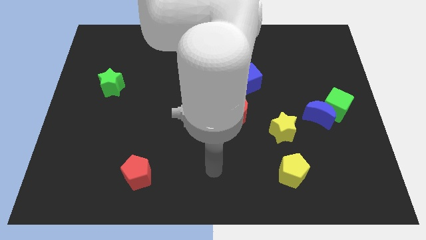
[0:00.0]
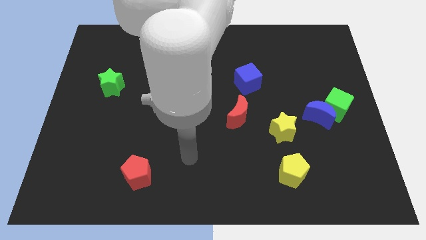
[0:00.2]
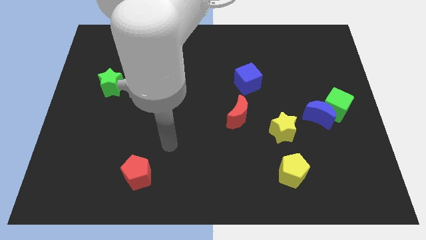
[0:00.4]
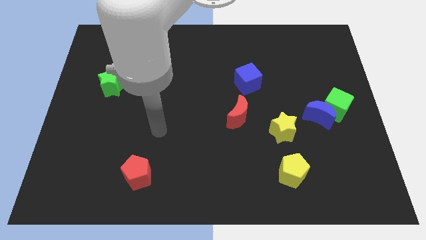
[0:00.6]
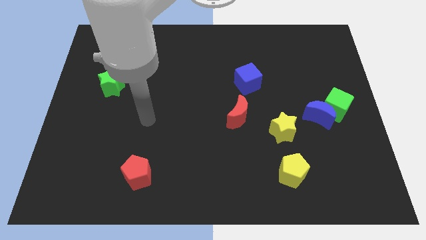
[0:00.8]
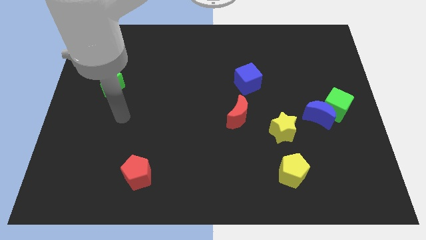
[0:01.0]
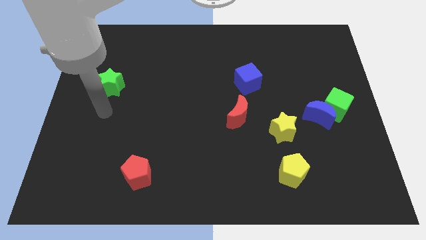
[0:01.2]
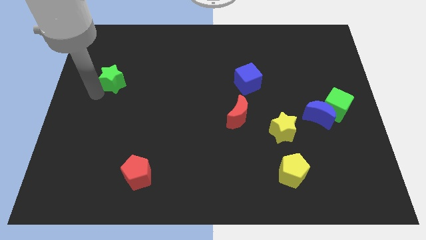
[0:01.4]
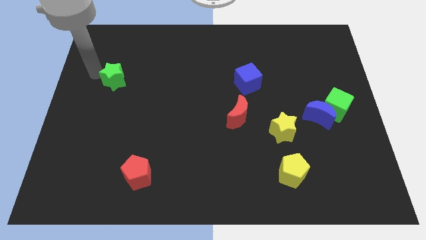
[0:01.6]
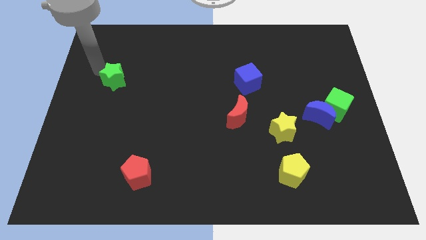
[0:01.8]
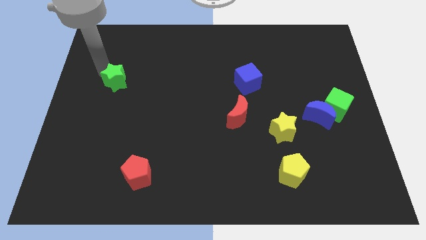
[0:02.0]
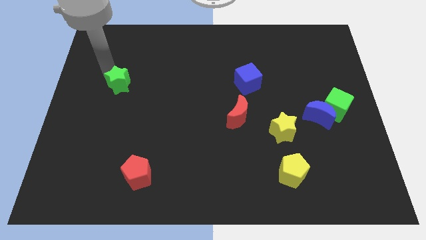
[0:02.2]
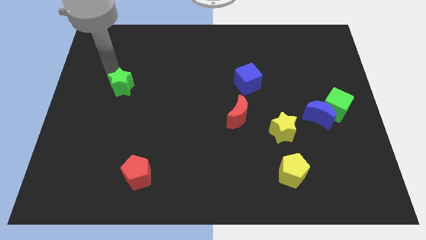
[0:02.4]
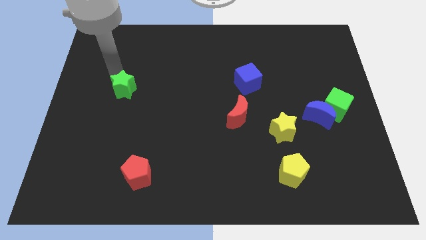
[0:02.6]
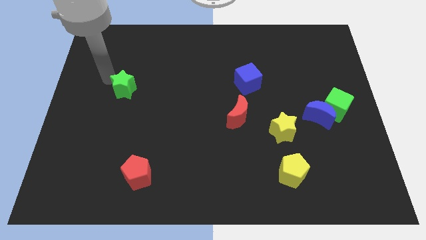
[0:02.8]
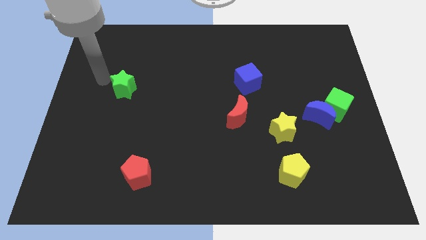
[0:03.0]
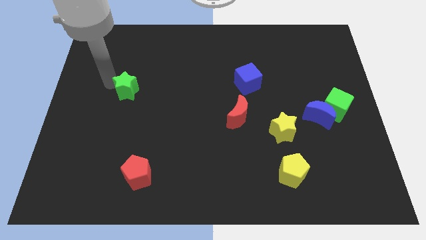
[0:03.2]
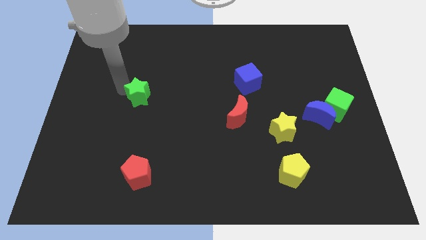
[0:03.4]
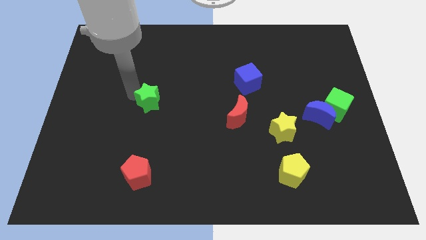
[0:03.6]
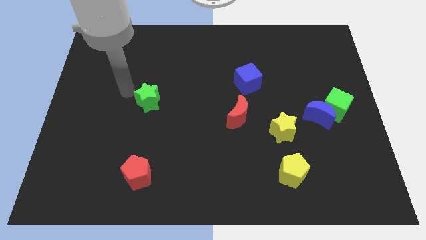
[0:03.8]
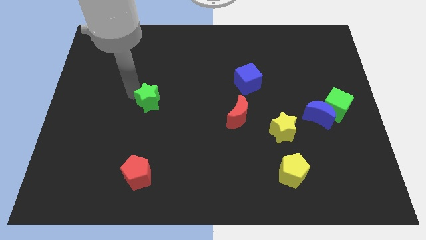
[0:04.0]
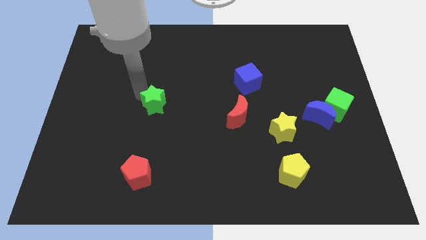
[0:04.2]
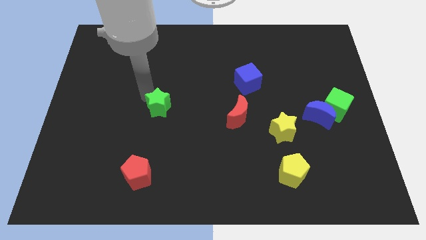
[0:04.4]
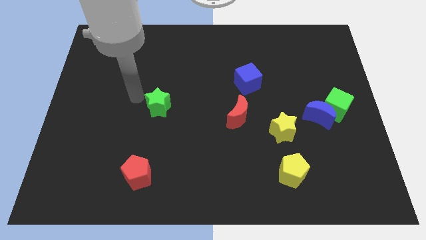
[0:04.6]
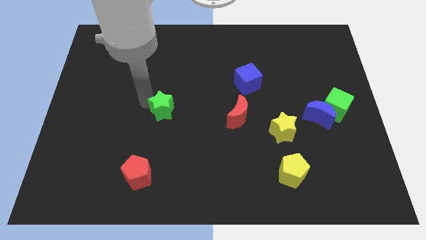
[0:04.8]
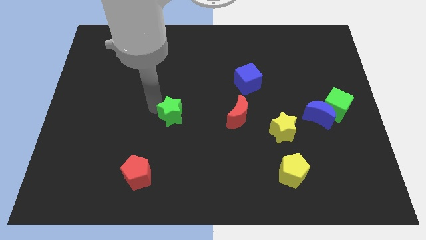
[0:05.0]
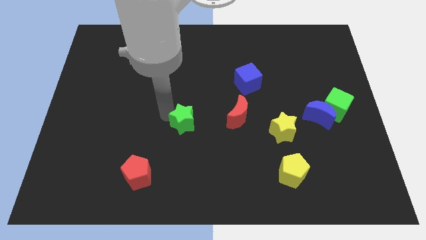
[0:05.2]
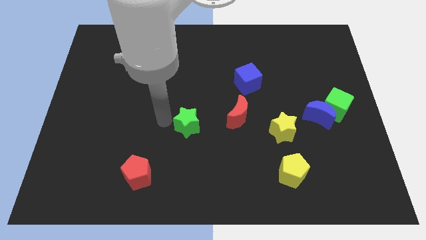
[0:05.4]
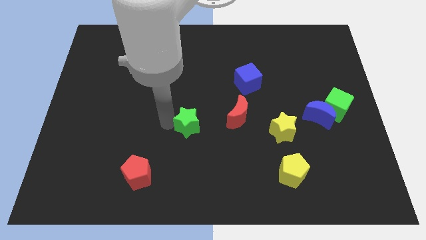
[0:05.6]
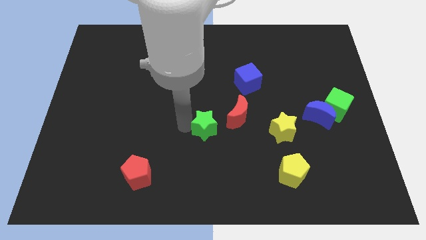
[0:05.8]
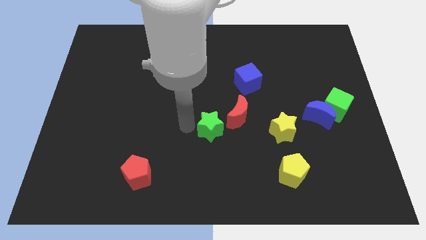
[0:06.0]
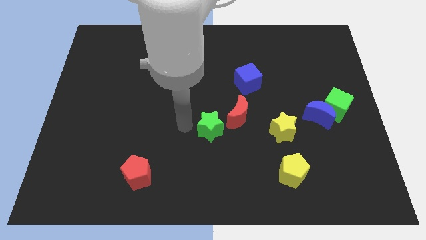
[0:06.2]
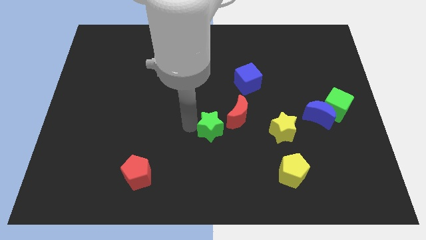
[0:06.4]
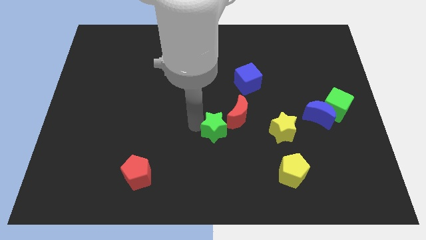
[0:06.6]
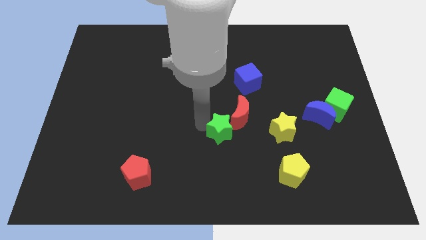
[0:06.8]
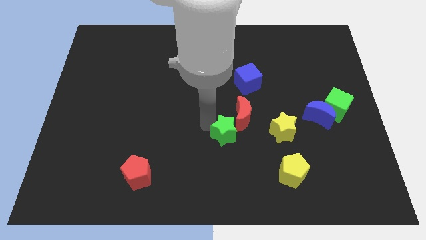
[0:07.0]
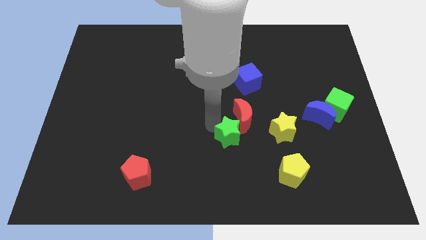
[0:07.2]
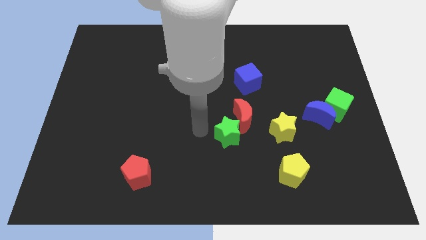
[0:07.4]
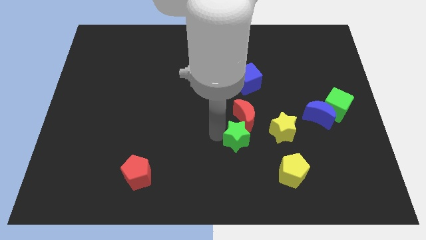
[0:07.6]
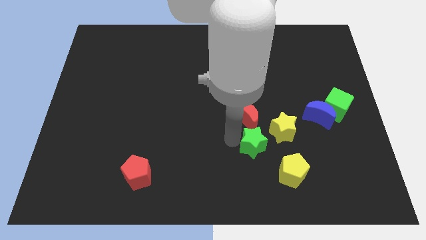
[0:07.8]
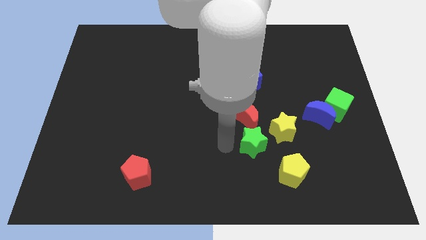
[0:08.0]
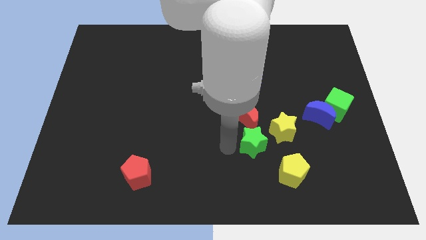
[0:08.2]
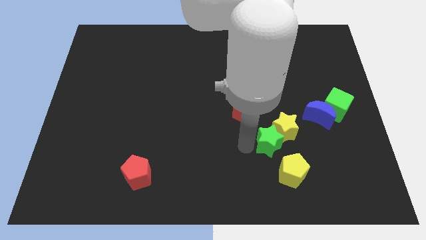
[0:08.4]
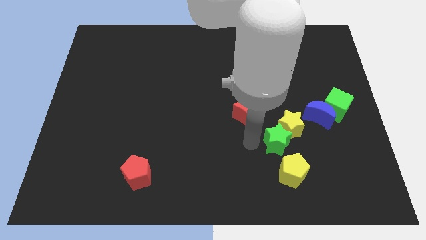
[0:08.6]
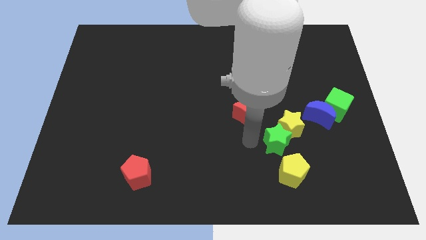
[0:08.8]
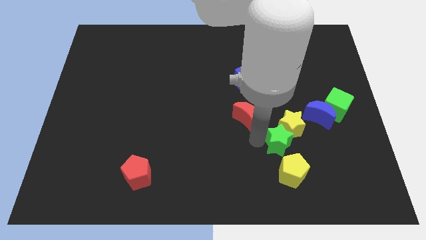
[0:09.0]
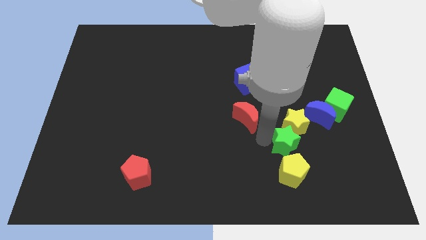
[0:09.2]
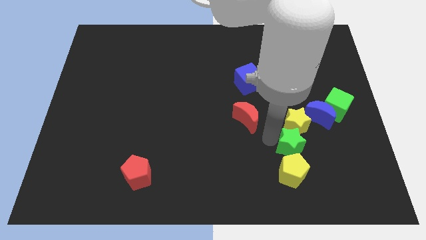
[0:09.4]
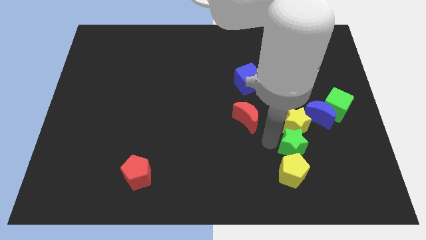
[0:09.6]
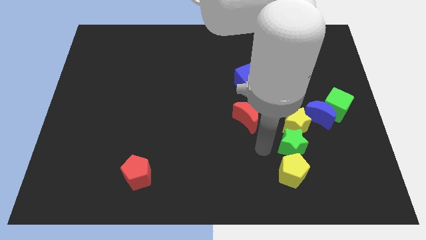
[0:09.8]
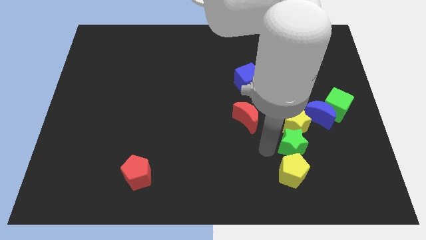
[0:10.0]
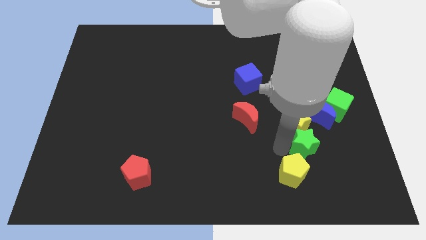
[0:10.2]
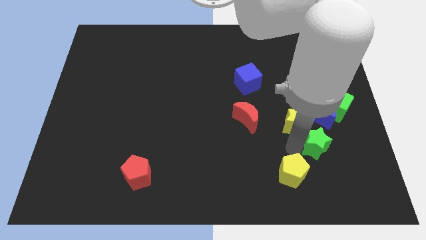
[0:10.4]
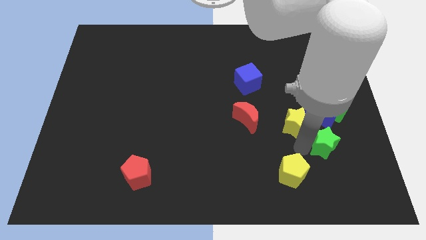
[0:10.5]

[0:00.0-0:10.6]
slide the green star to the bottom of the green cube

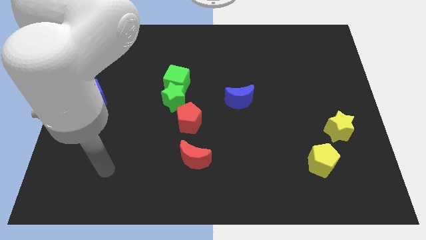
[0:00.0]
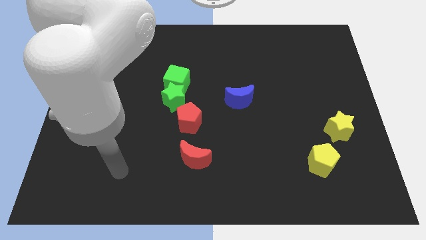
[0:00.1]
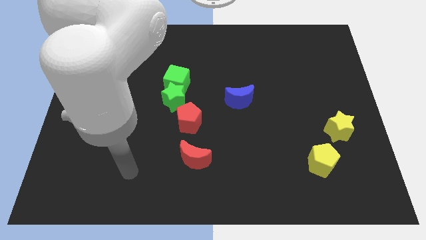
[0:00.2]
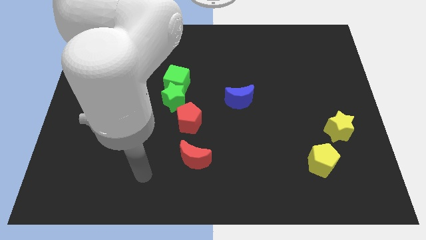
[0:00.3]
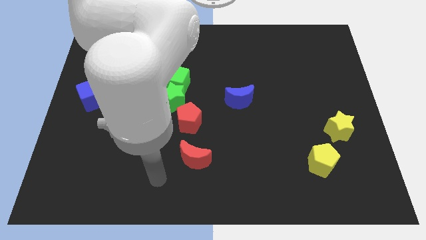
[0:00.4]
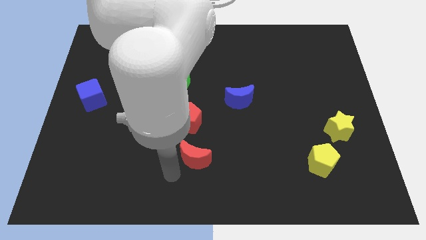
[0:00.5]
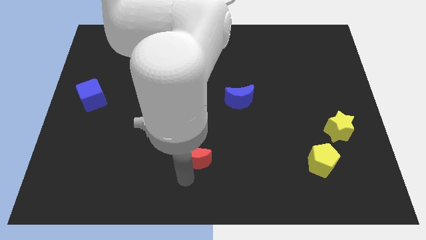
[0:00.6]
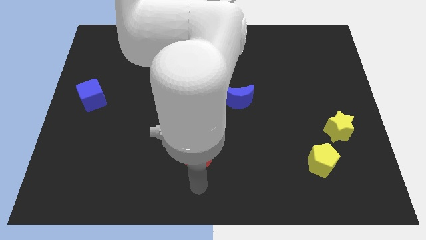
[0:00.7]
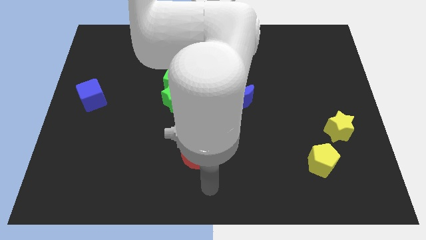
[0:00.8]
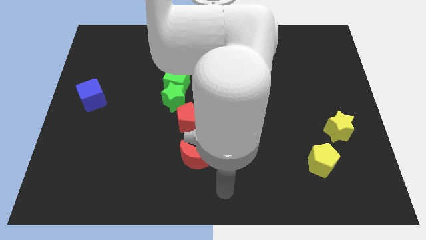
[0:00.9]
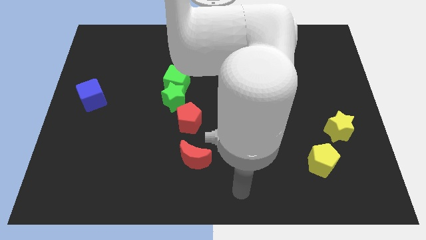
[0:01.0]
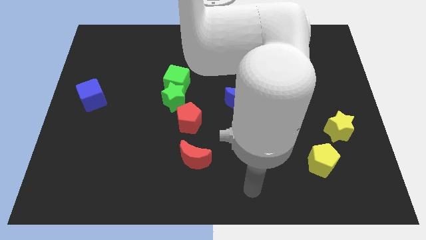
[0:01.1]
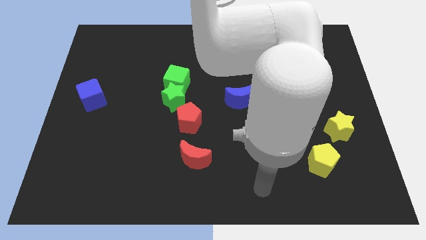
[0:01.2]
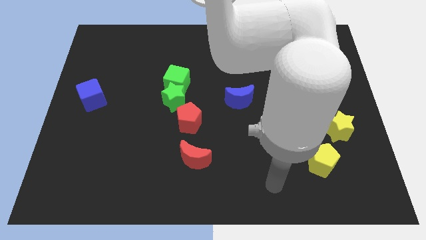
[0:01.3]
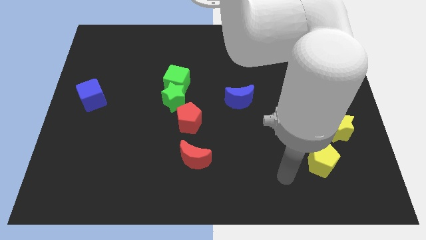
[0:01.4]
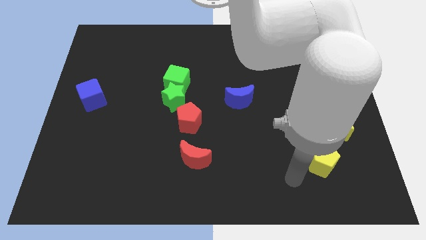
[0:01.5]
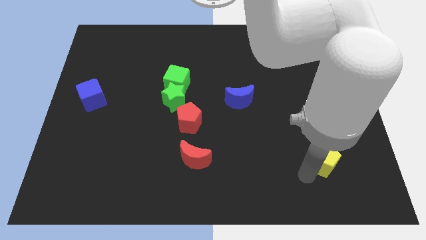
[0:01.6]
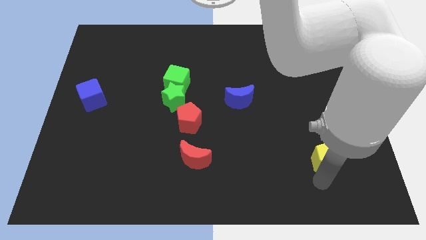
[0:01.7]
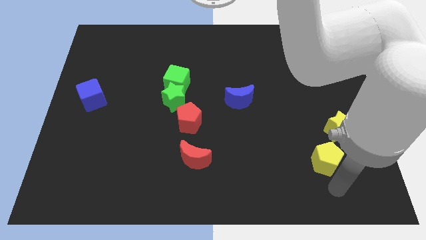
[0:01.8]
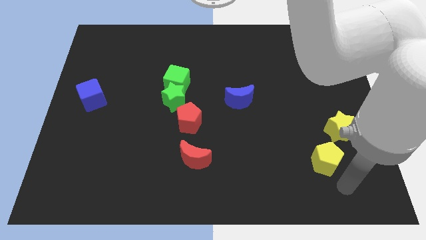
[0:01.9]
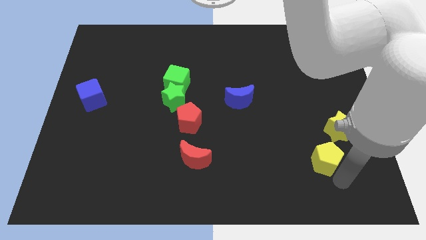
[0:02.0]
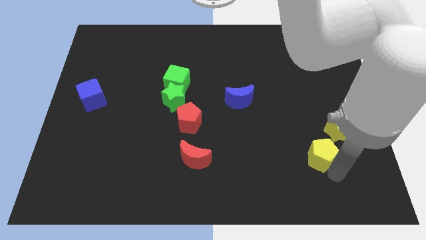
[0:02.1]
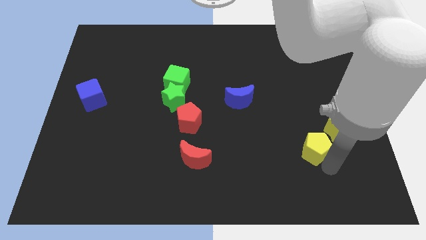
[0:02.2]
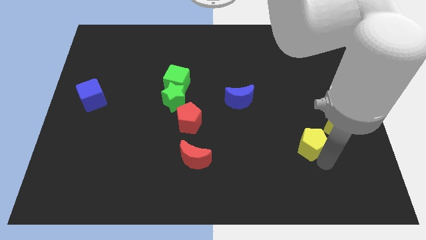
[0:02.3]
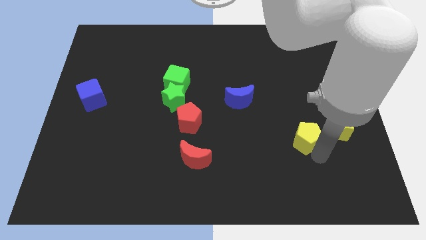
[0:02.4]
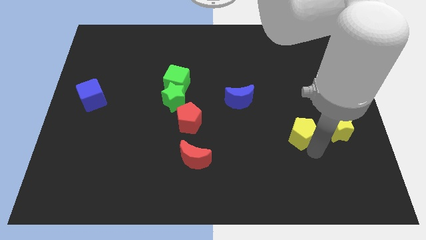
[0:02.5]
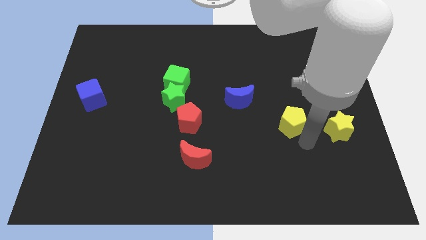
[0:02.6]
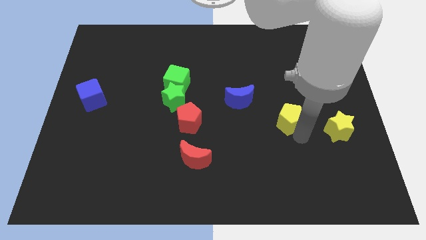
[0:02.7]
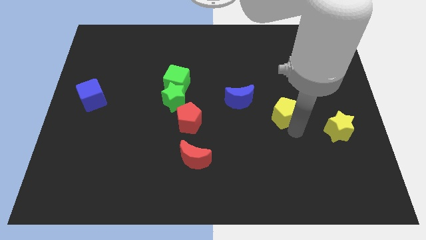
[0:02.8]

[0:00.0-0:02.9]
put the yellow pentagon right of the blue moon
